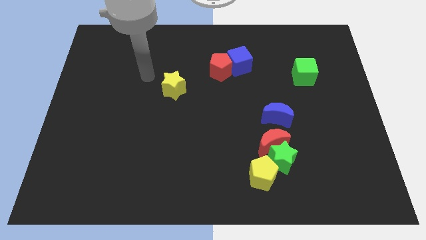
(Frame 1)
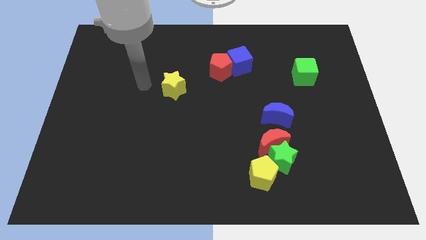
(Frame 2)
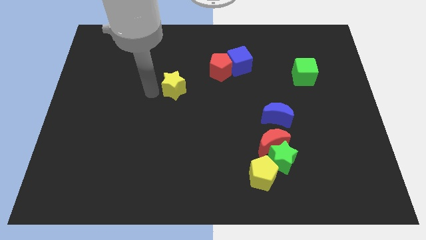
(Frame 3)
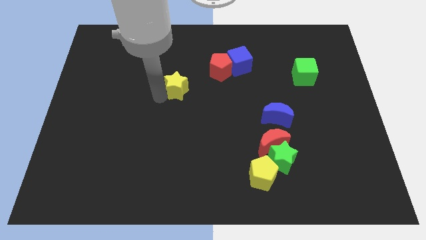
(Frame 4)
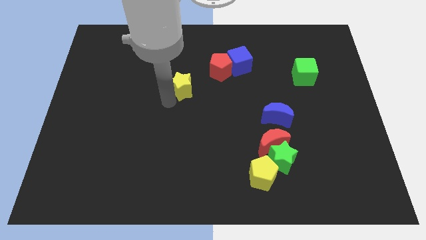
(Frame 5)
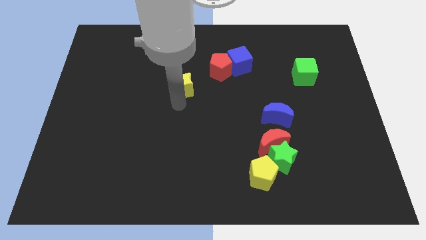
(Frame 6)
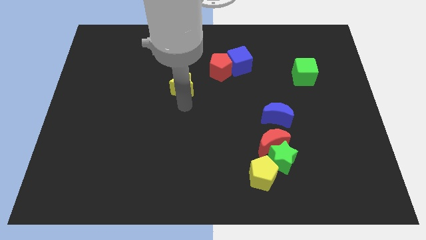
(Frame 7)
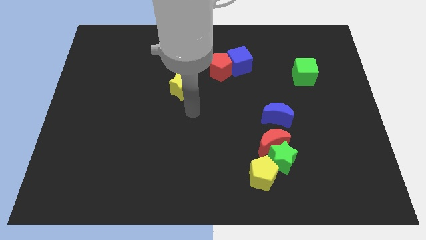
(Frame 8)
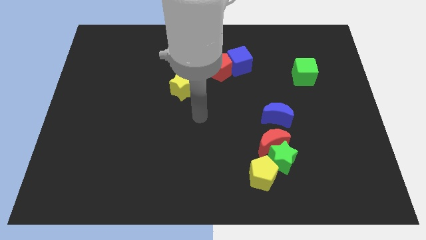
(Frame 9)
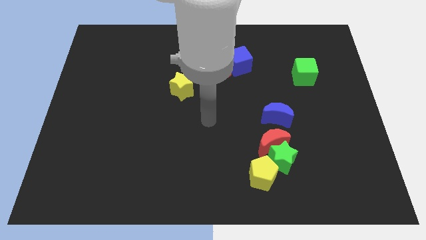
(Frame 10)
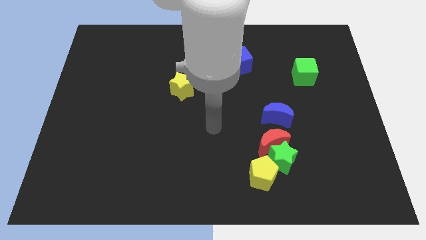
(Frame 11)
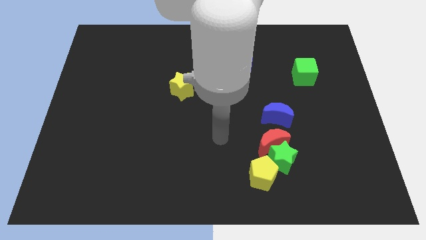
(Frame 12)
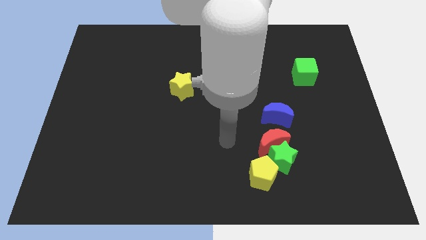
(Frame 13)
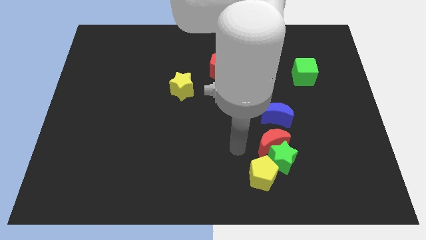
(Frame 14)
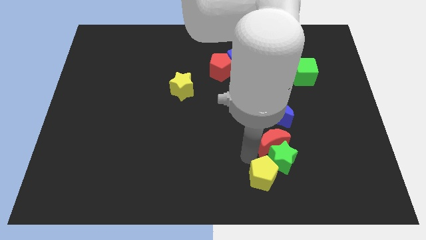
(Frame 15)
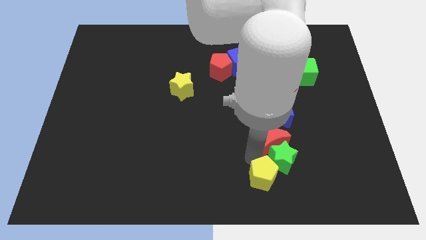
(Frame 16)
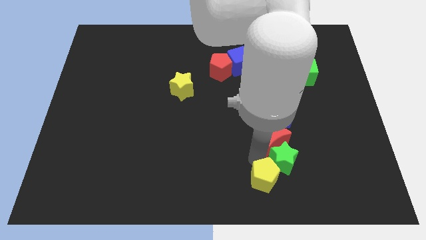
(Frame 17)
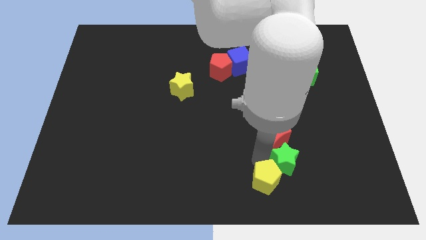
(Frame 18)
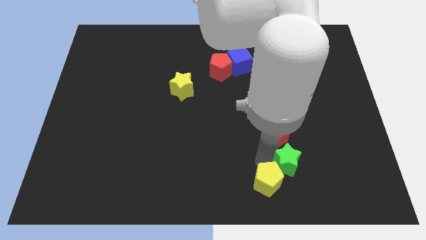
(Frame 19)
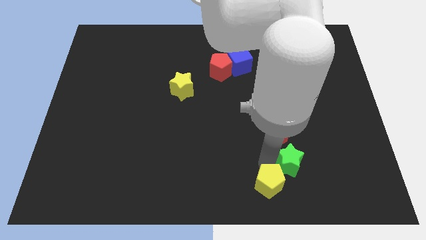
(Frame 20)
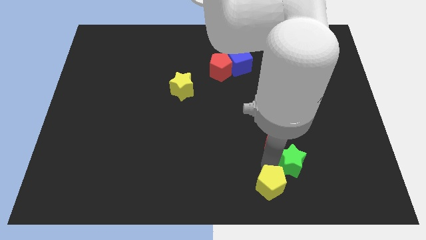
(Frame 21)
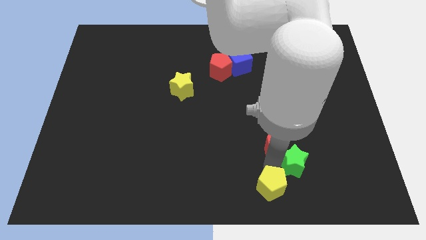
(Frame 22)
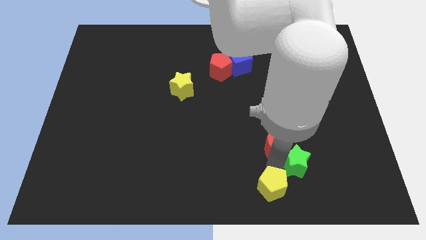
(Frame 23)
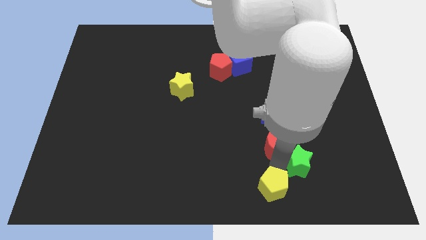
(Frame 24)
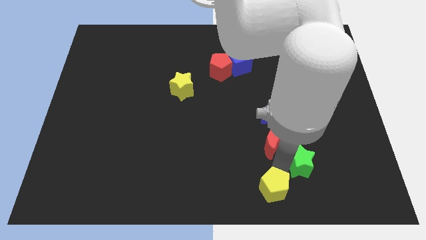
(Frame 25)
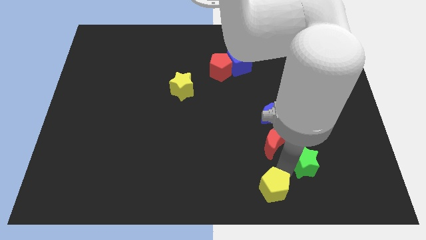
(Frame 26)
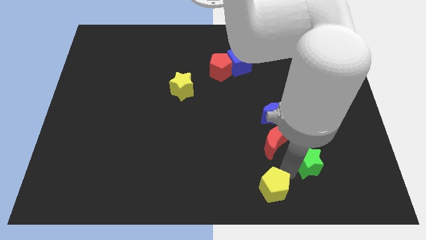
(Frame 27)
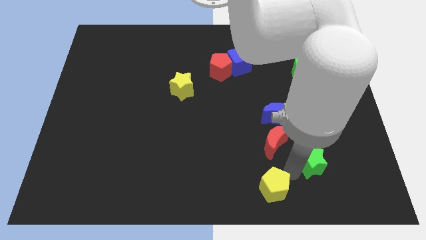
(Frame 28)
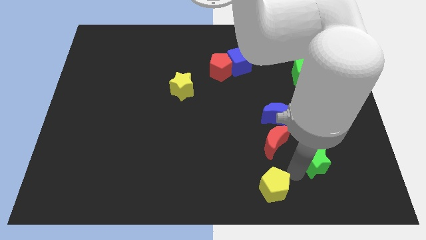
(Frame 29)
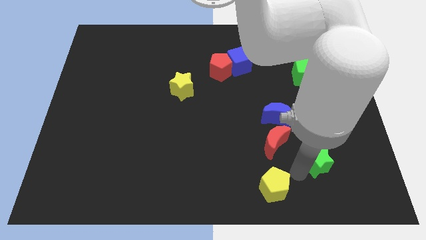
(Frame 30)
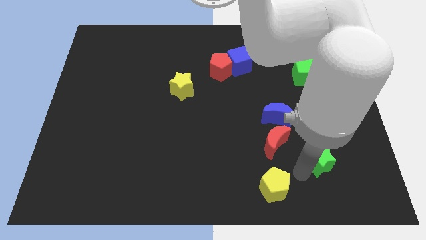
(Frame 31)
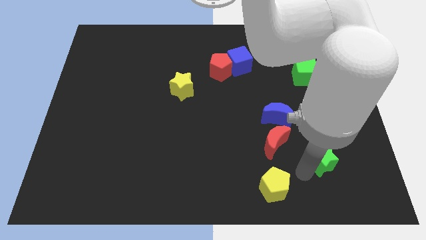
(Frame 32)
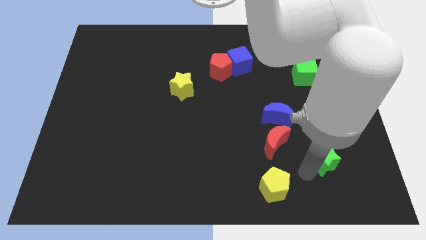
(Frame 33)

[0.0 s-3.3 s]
move the green star away from the red moon and yellow pentagon

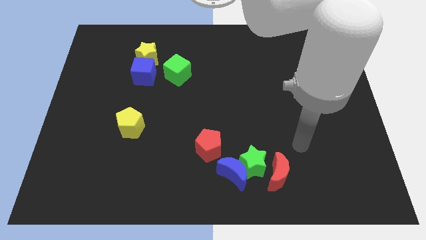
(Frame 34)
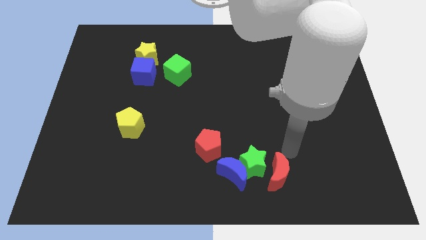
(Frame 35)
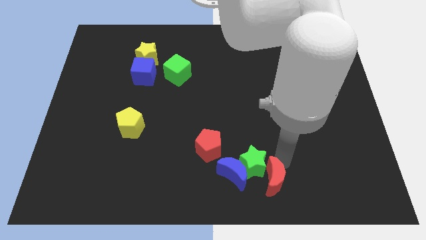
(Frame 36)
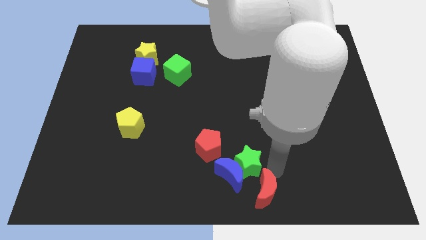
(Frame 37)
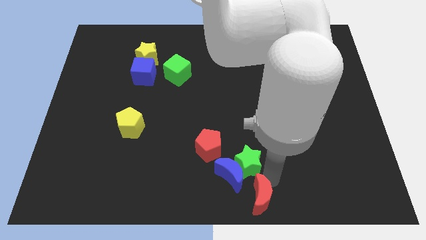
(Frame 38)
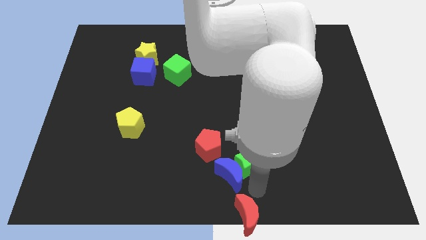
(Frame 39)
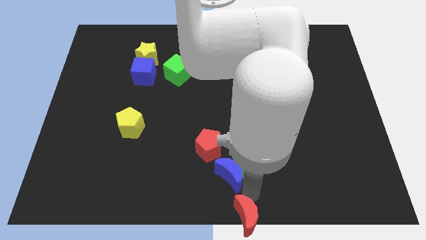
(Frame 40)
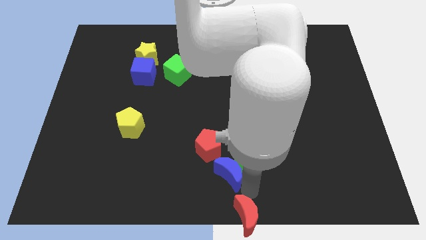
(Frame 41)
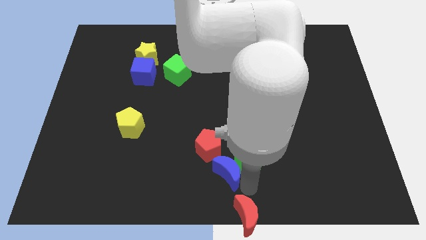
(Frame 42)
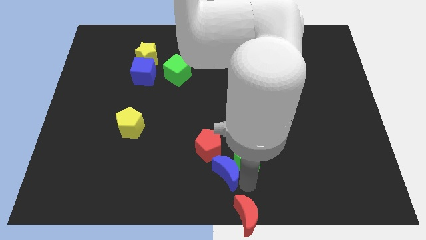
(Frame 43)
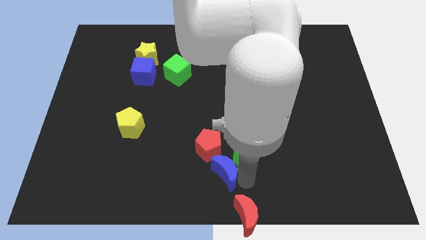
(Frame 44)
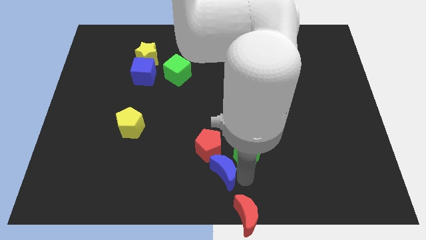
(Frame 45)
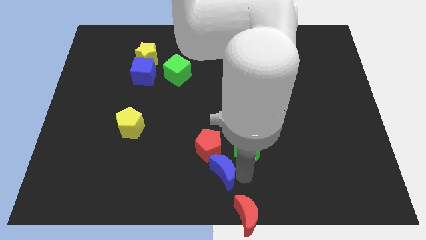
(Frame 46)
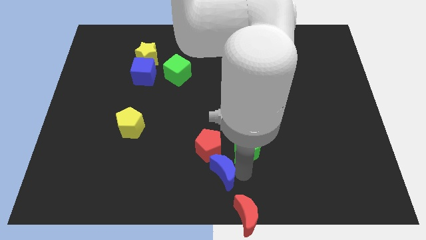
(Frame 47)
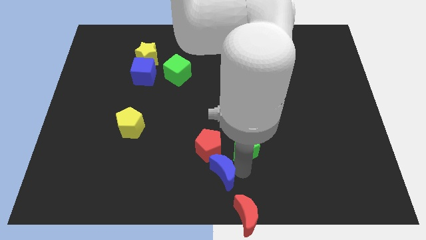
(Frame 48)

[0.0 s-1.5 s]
separate the green star from the blue moon and red moon

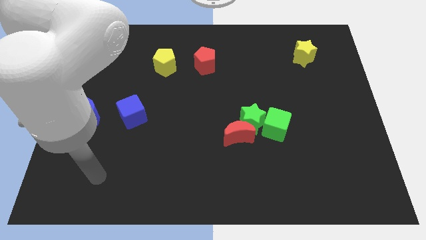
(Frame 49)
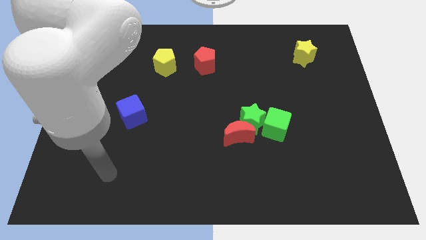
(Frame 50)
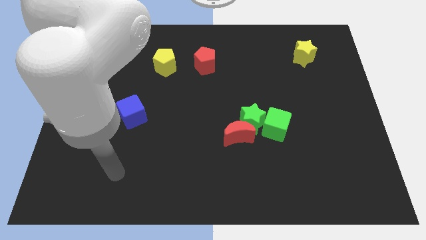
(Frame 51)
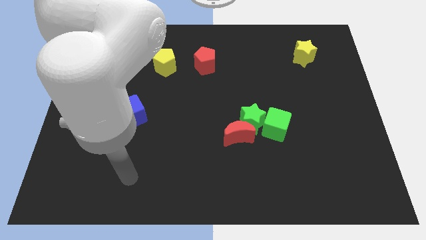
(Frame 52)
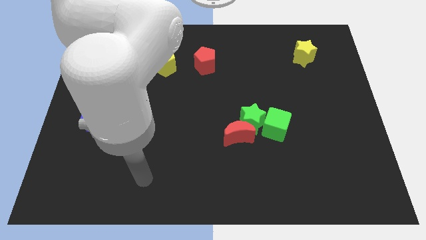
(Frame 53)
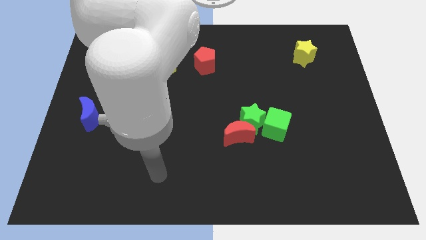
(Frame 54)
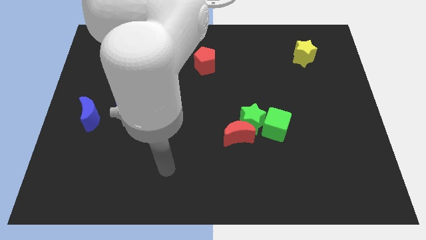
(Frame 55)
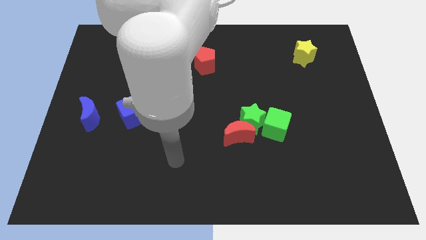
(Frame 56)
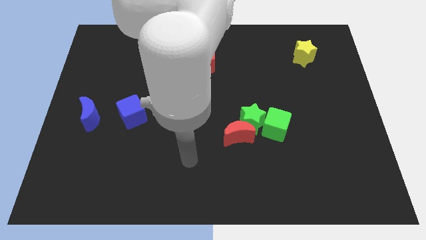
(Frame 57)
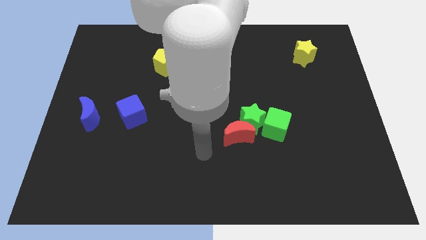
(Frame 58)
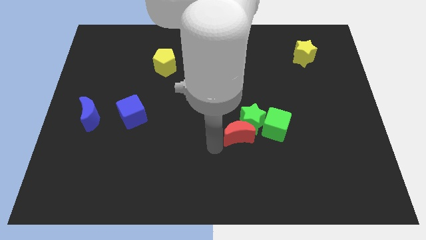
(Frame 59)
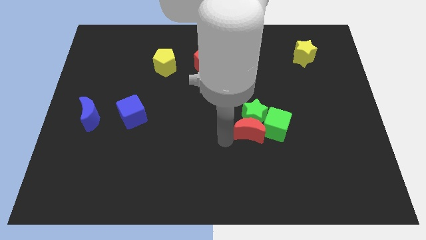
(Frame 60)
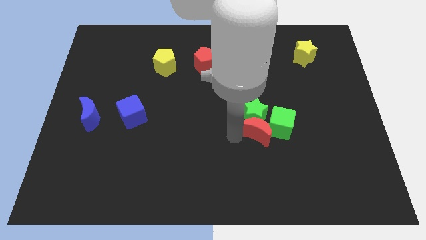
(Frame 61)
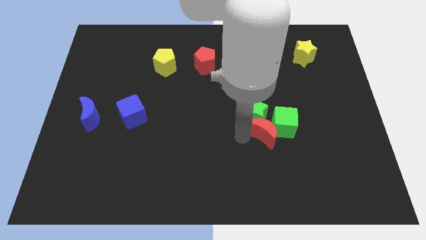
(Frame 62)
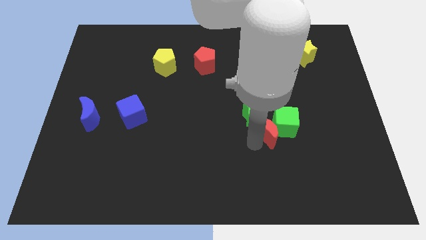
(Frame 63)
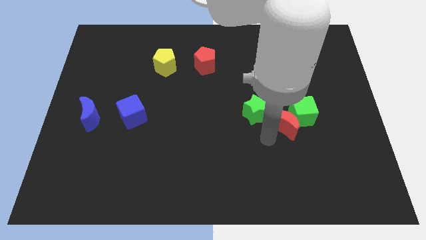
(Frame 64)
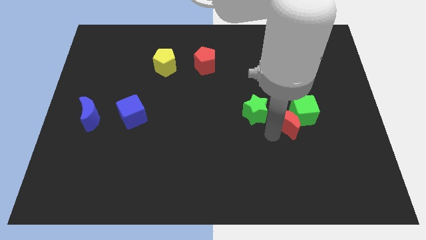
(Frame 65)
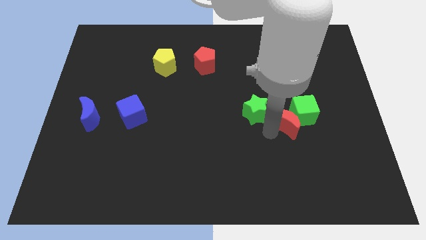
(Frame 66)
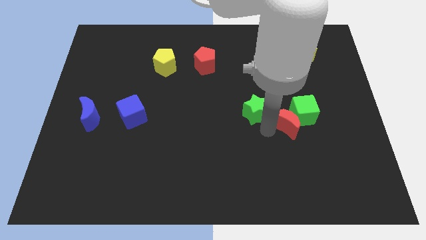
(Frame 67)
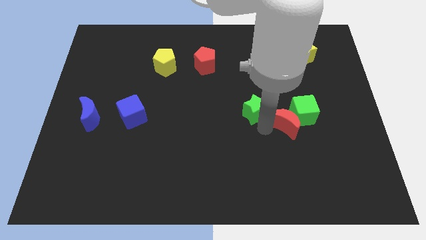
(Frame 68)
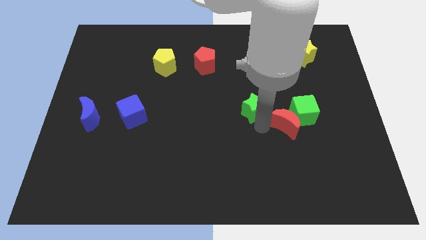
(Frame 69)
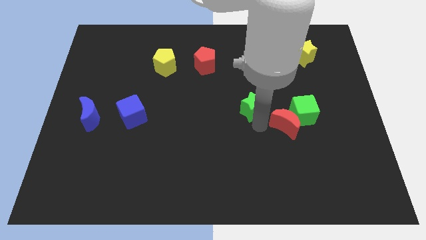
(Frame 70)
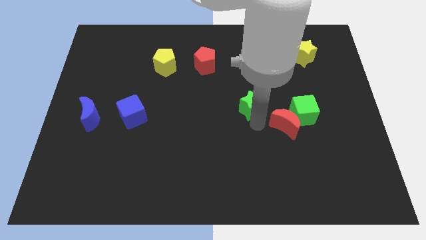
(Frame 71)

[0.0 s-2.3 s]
pull the green star apart from the red moon and green cube

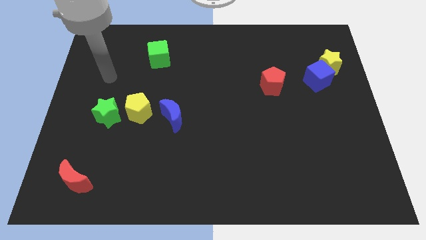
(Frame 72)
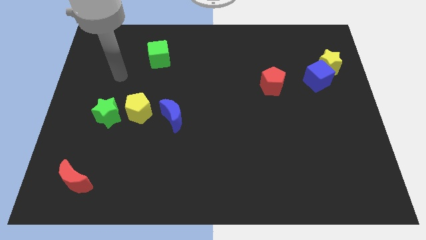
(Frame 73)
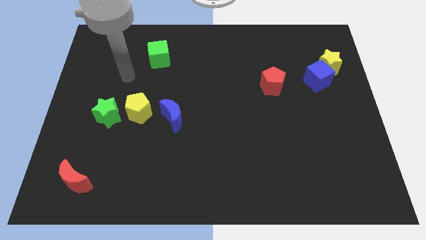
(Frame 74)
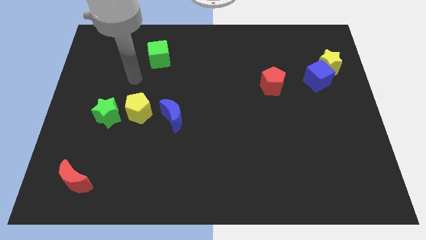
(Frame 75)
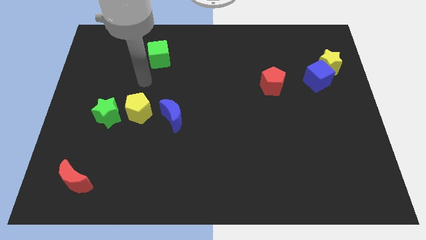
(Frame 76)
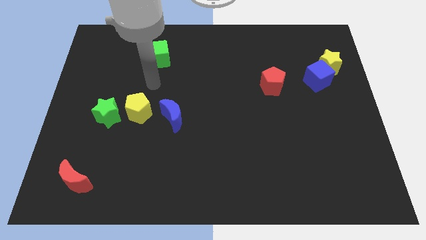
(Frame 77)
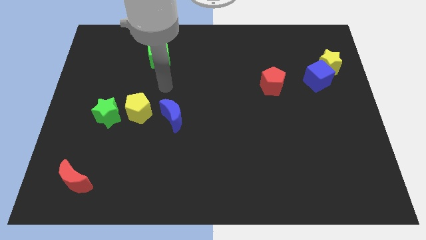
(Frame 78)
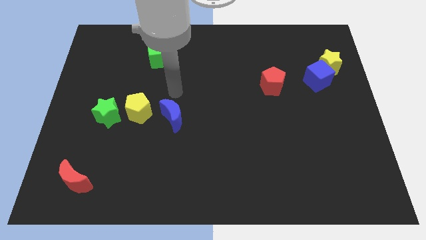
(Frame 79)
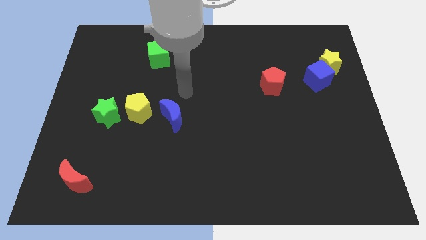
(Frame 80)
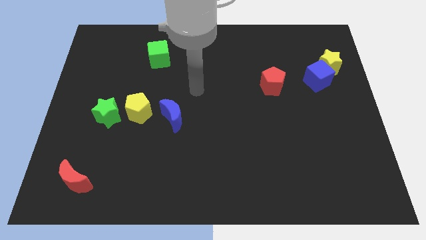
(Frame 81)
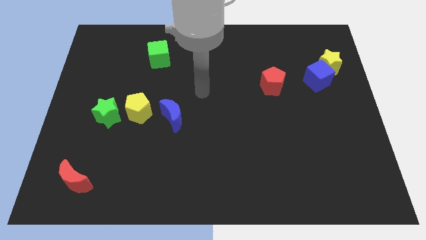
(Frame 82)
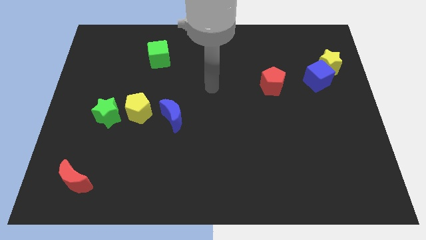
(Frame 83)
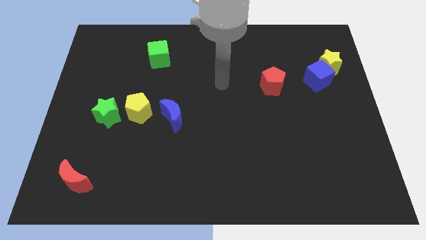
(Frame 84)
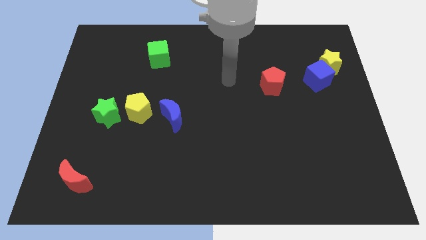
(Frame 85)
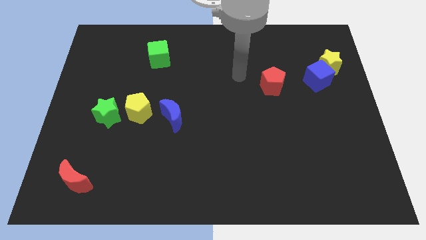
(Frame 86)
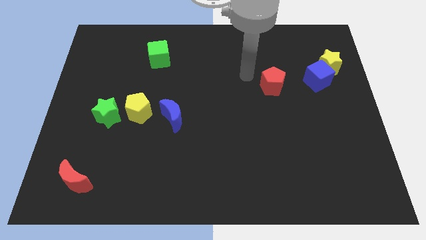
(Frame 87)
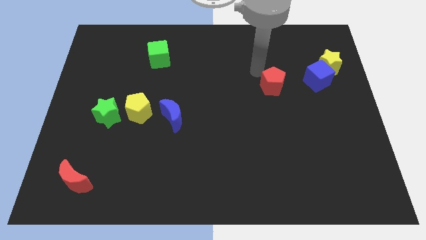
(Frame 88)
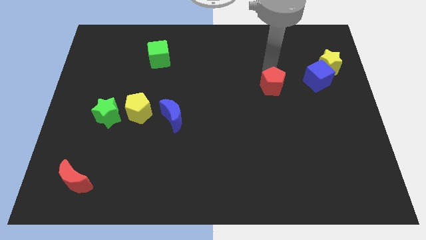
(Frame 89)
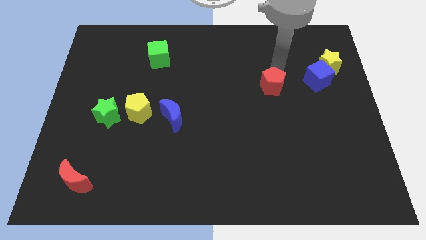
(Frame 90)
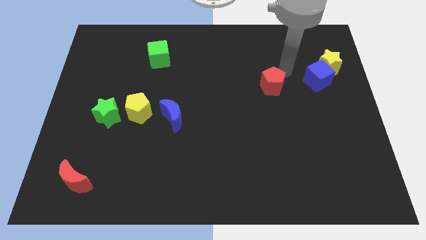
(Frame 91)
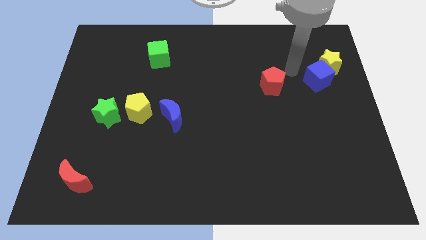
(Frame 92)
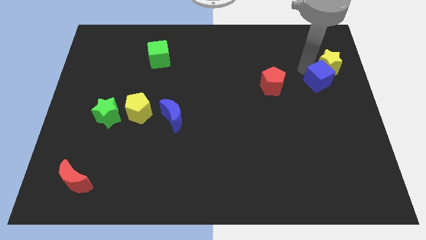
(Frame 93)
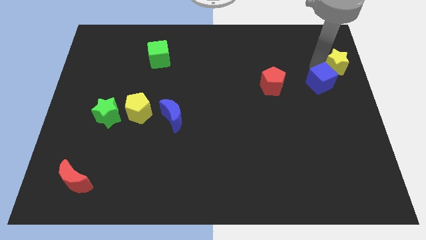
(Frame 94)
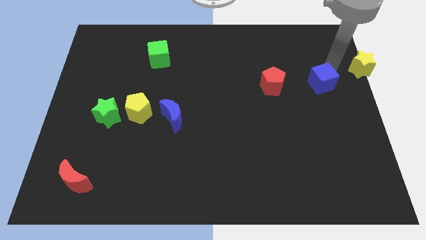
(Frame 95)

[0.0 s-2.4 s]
separate the blue cube from the yellow star
